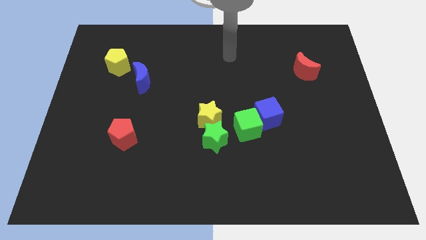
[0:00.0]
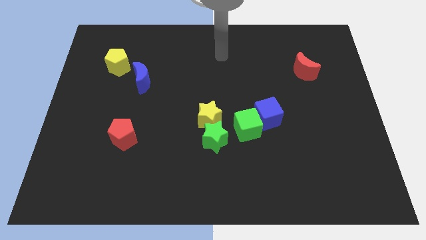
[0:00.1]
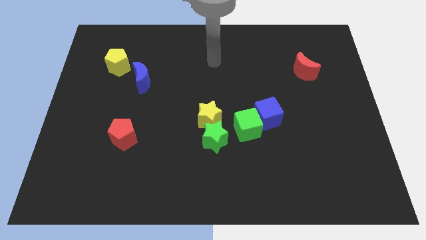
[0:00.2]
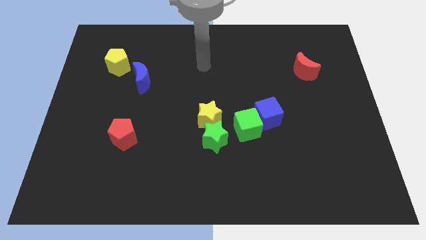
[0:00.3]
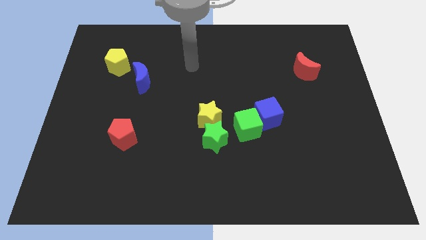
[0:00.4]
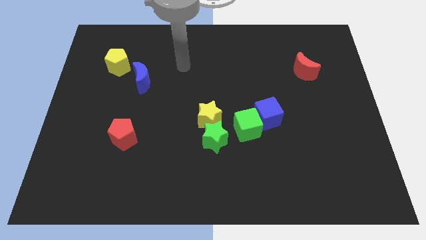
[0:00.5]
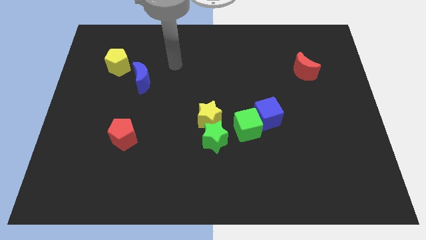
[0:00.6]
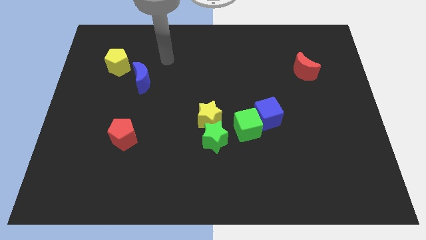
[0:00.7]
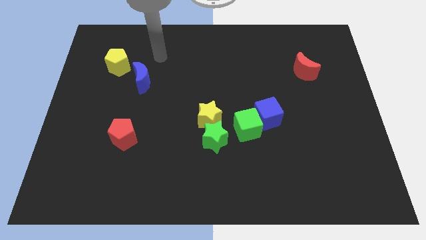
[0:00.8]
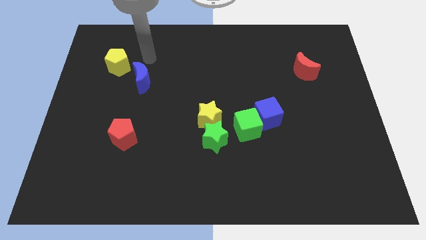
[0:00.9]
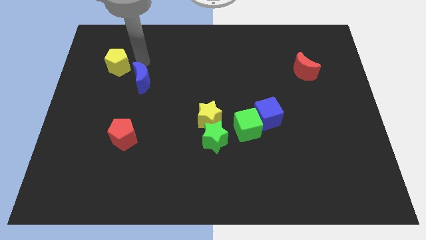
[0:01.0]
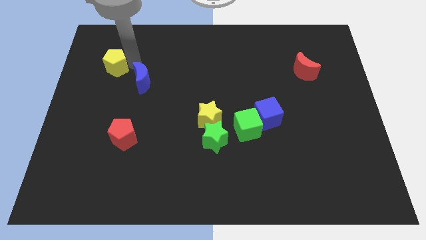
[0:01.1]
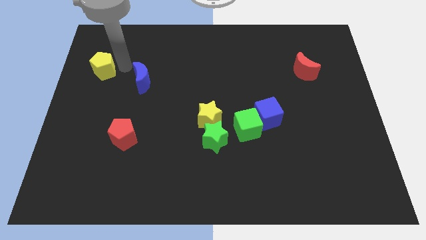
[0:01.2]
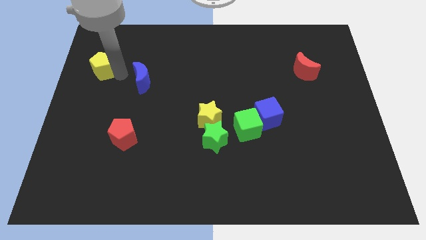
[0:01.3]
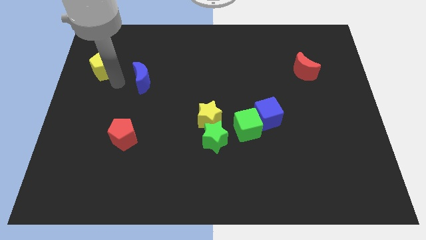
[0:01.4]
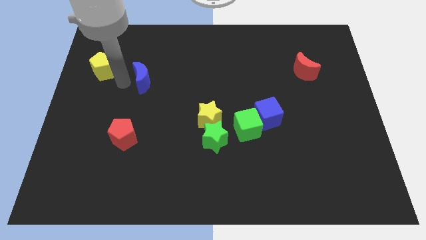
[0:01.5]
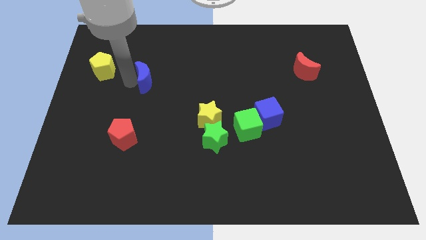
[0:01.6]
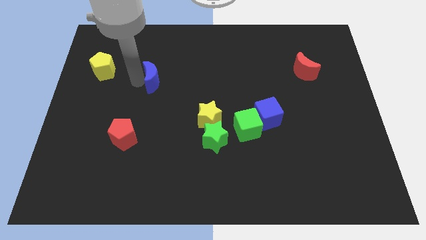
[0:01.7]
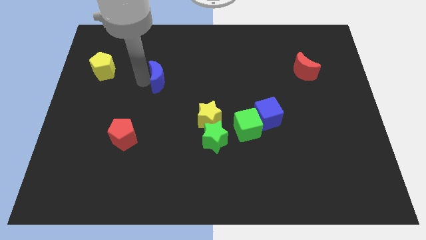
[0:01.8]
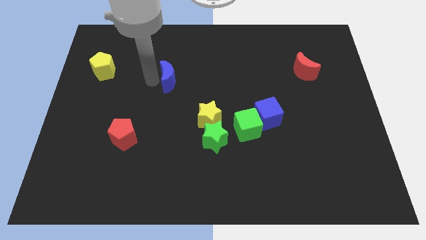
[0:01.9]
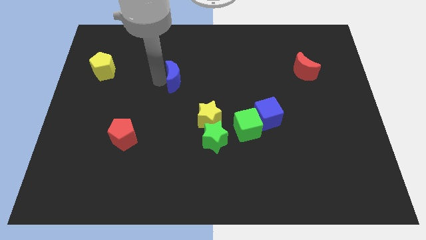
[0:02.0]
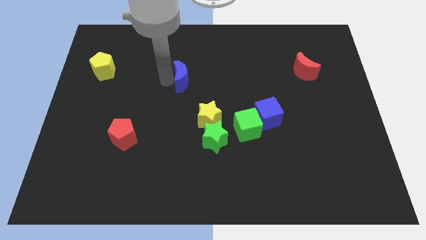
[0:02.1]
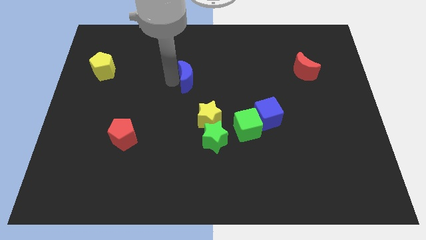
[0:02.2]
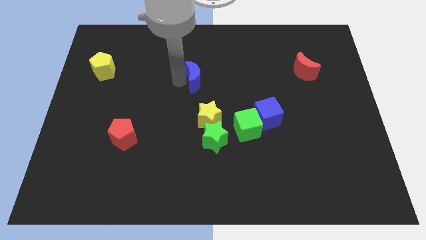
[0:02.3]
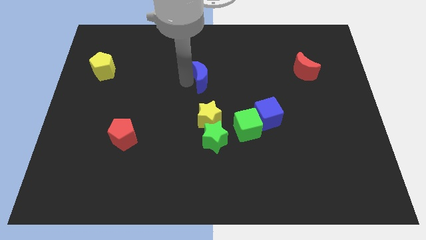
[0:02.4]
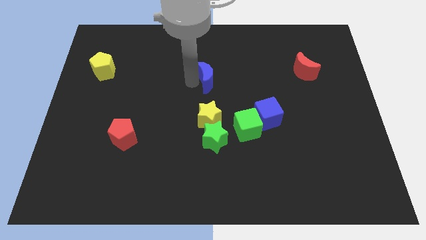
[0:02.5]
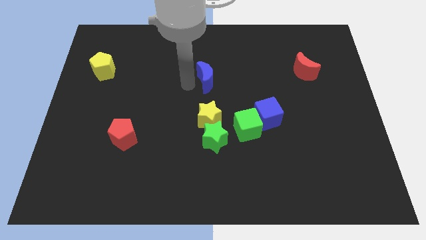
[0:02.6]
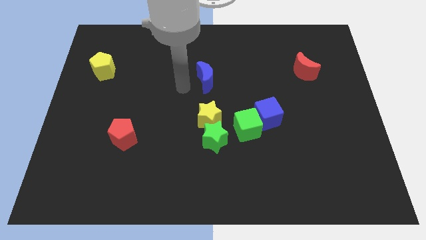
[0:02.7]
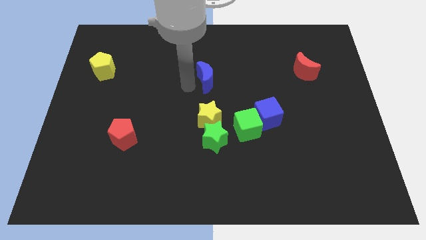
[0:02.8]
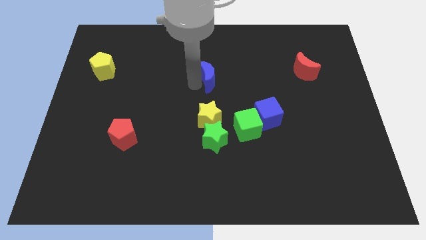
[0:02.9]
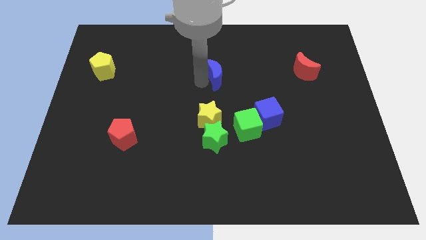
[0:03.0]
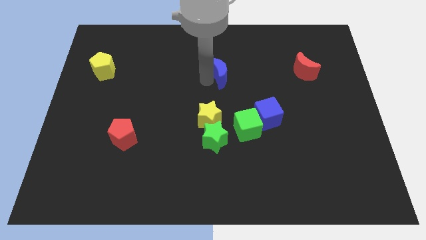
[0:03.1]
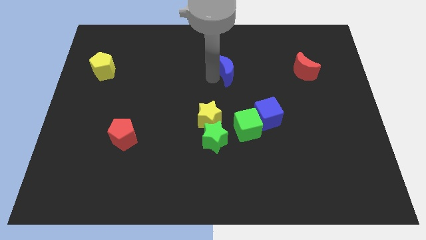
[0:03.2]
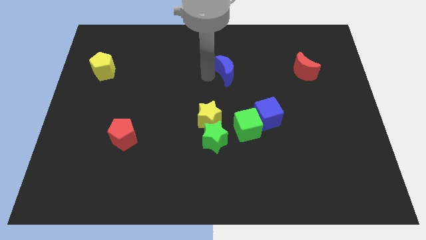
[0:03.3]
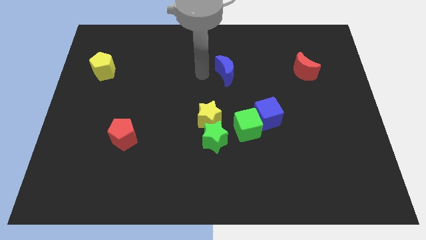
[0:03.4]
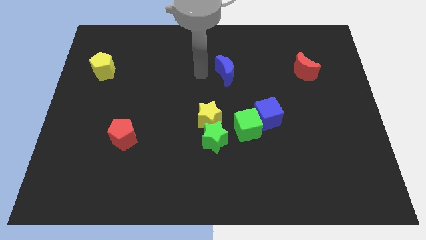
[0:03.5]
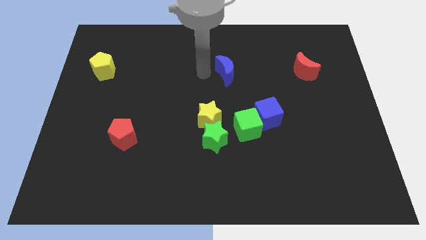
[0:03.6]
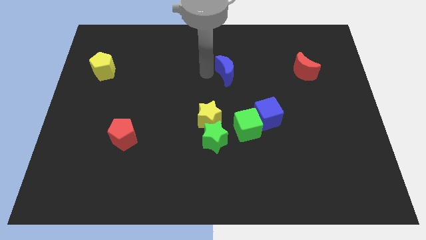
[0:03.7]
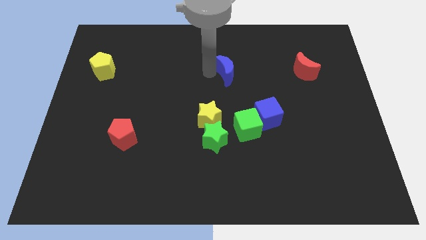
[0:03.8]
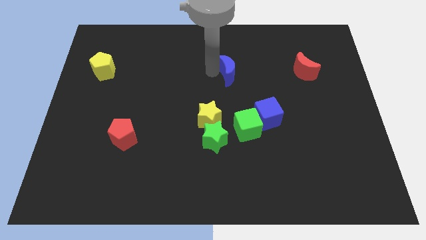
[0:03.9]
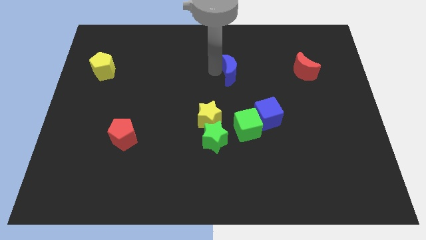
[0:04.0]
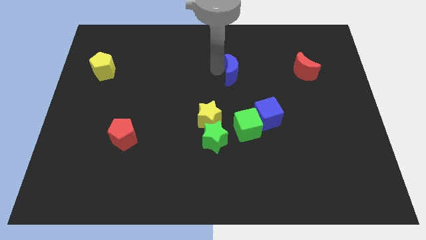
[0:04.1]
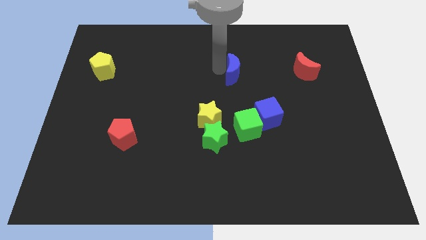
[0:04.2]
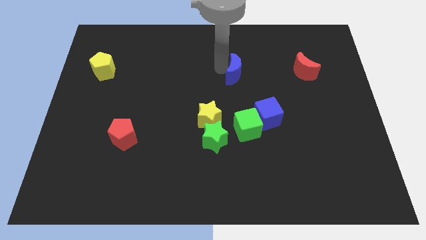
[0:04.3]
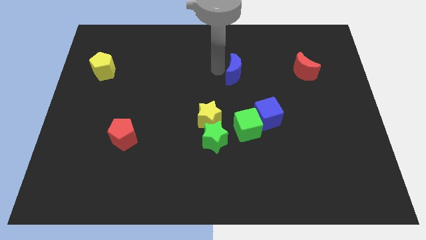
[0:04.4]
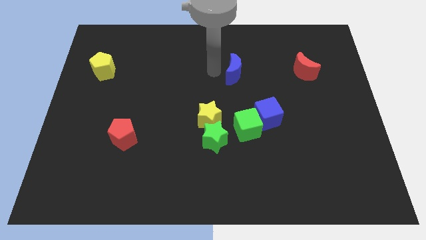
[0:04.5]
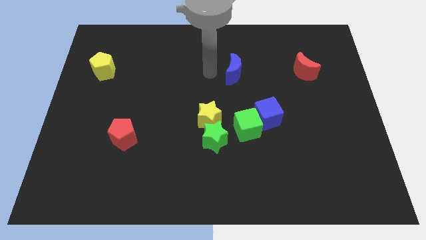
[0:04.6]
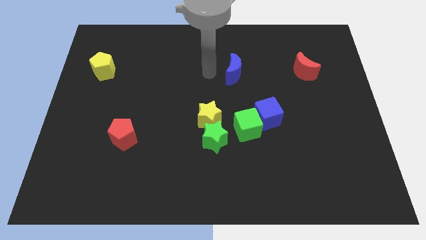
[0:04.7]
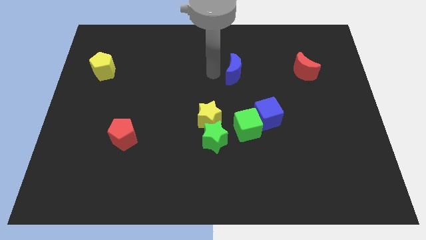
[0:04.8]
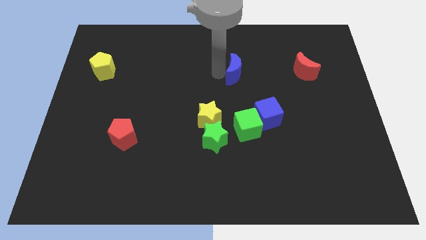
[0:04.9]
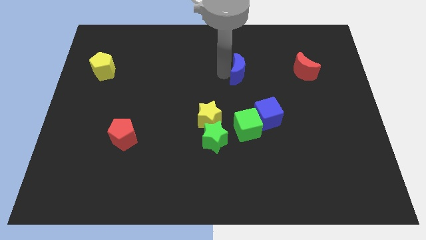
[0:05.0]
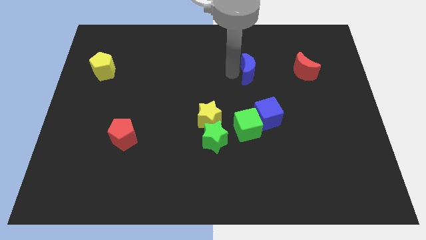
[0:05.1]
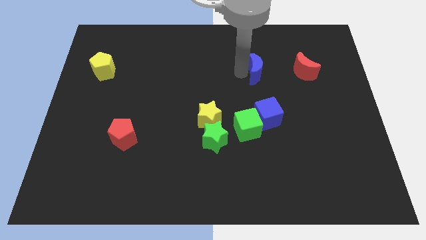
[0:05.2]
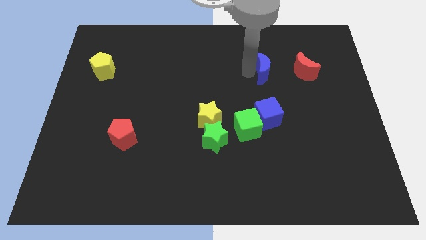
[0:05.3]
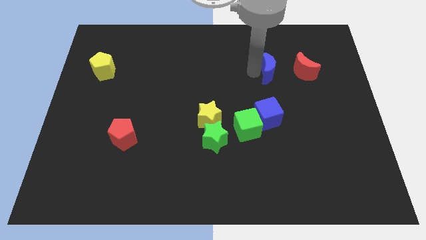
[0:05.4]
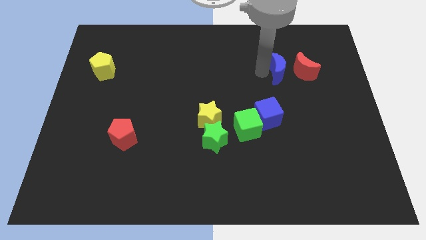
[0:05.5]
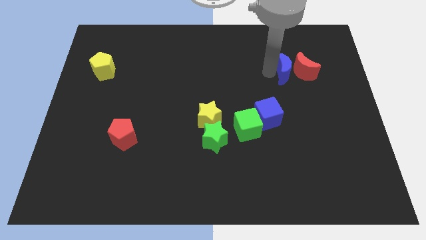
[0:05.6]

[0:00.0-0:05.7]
put the blue moon next to the red moon

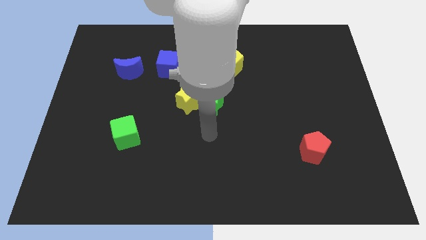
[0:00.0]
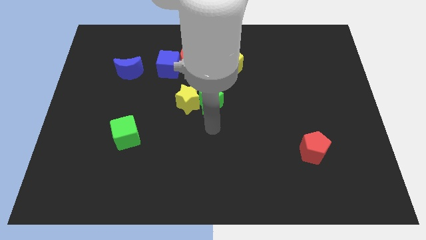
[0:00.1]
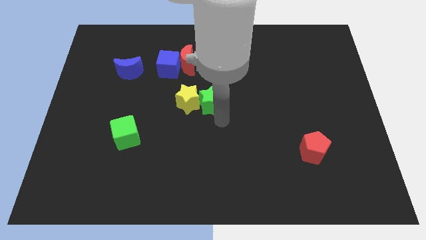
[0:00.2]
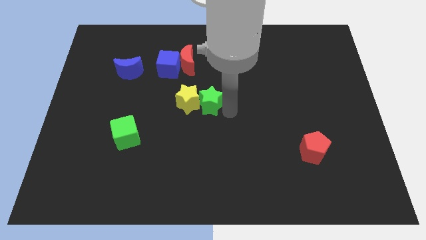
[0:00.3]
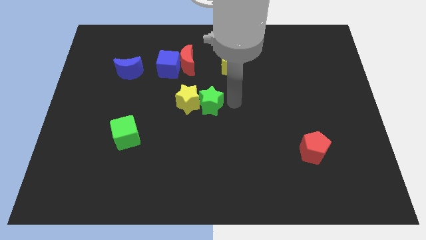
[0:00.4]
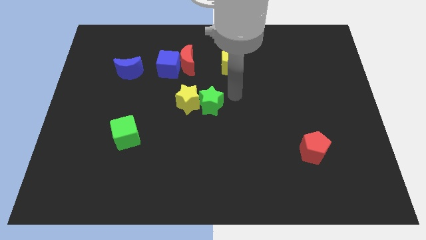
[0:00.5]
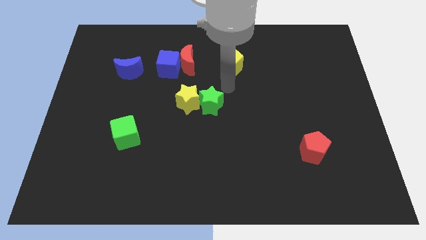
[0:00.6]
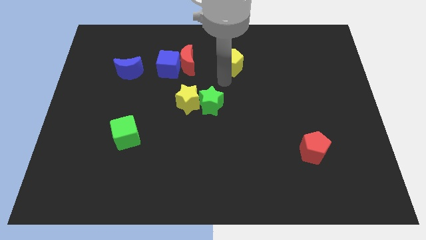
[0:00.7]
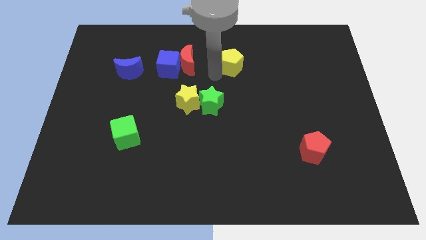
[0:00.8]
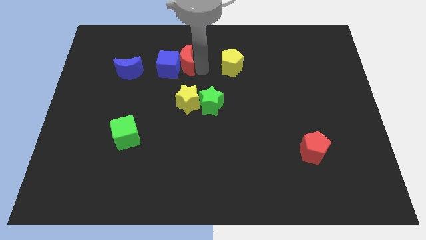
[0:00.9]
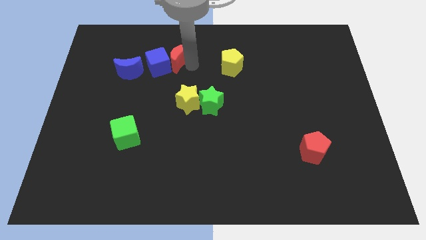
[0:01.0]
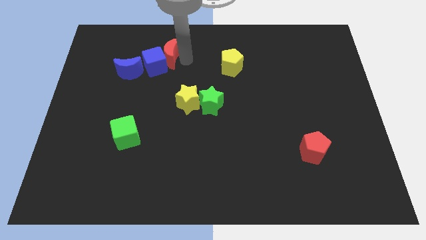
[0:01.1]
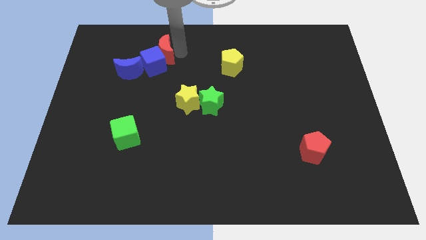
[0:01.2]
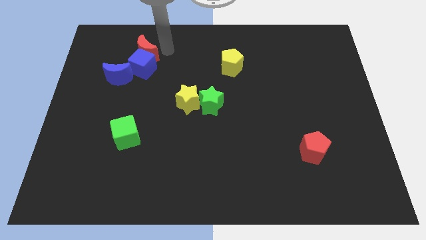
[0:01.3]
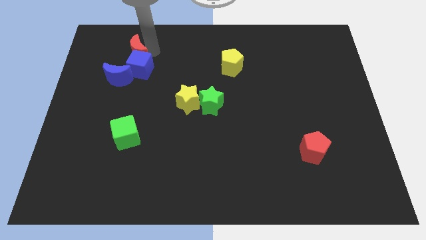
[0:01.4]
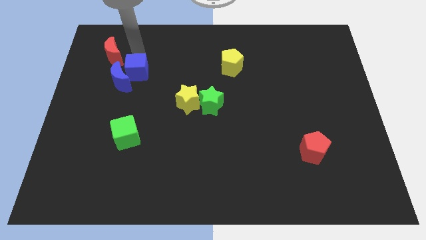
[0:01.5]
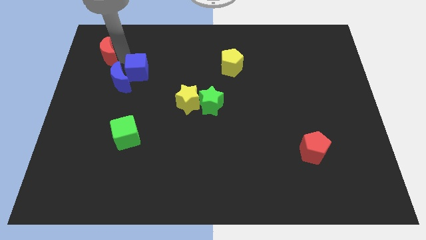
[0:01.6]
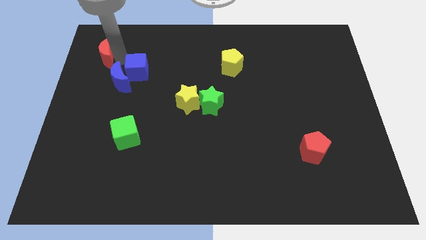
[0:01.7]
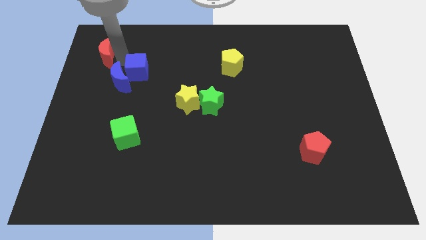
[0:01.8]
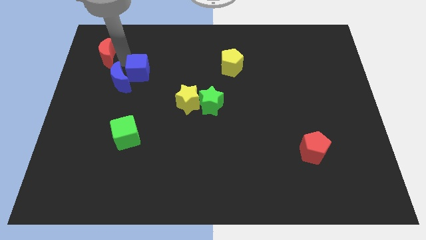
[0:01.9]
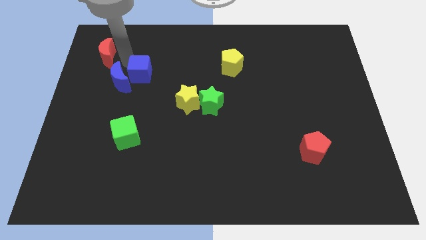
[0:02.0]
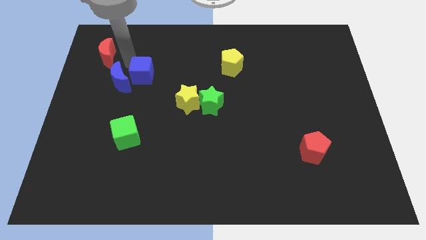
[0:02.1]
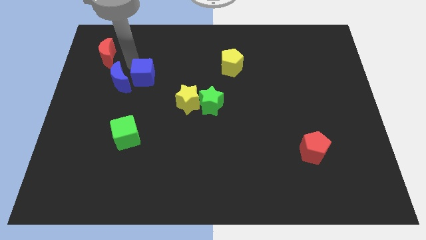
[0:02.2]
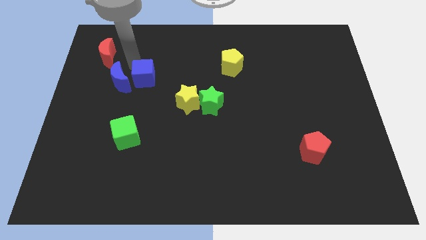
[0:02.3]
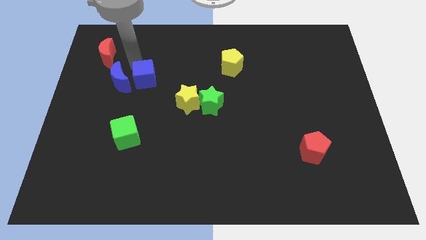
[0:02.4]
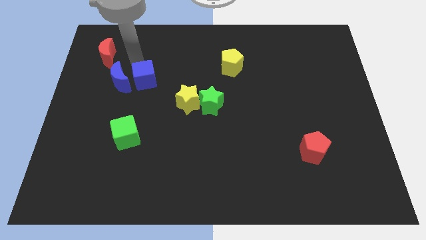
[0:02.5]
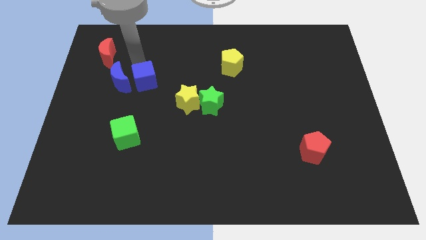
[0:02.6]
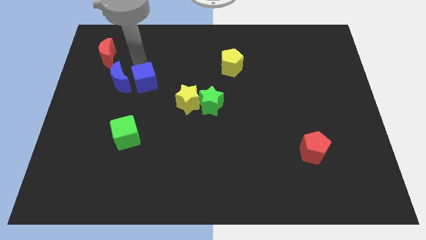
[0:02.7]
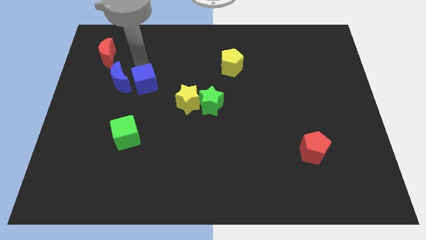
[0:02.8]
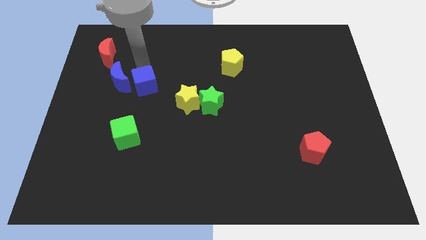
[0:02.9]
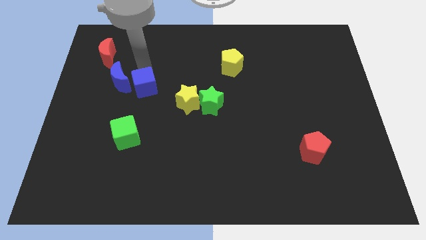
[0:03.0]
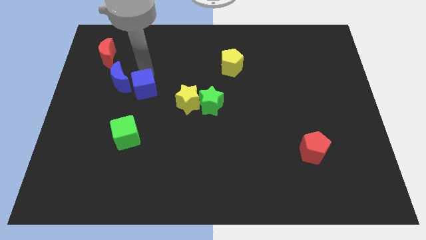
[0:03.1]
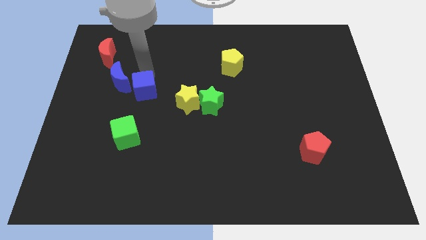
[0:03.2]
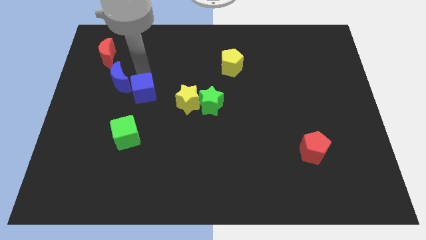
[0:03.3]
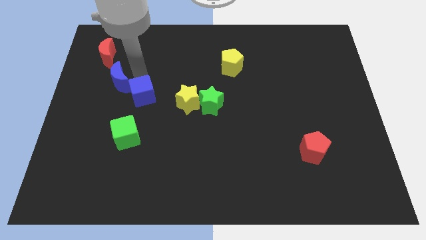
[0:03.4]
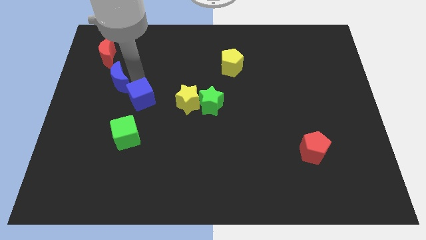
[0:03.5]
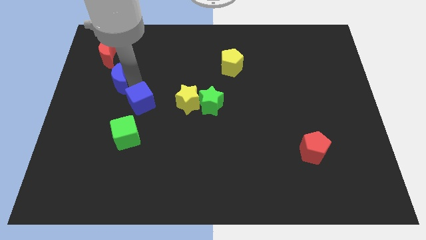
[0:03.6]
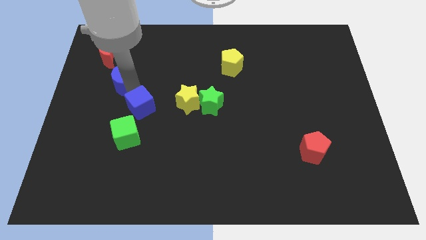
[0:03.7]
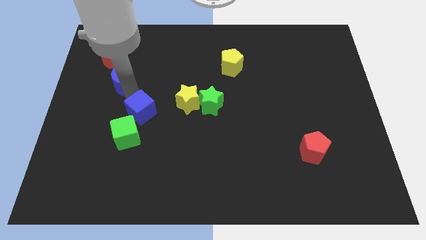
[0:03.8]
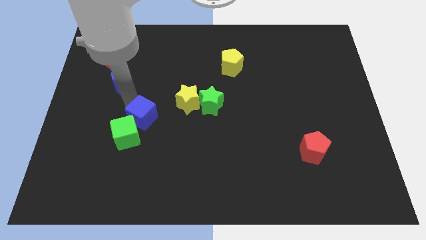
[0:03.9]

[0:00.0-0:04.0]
slide the blue cube to the green cube
